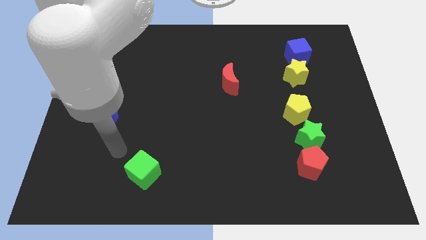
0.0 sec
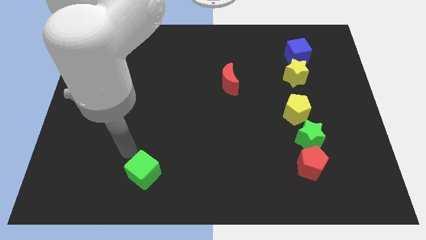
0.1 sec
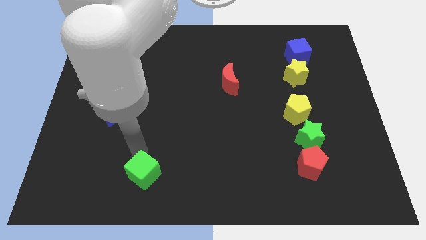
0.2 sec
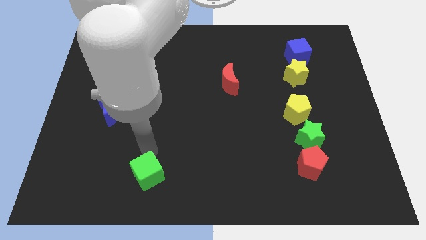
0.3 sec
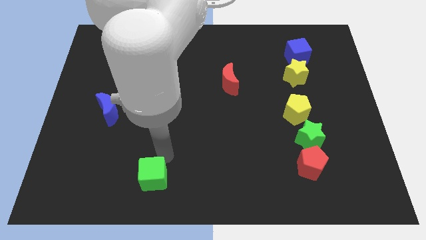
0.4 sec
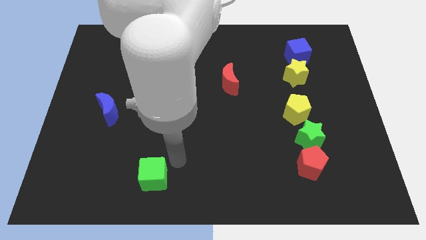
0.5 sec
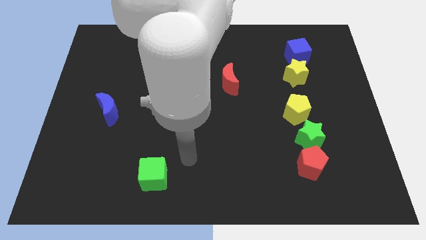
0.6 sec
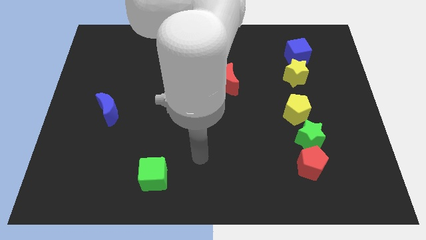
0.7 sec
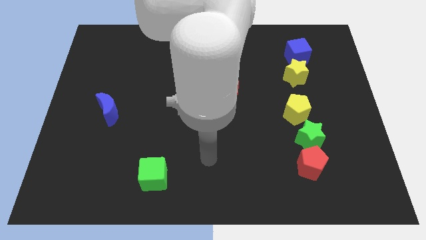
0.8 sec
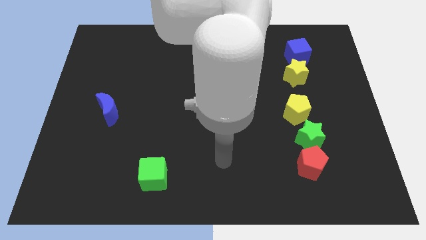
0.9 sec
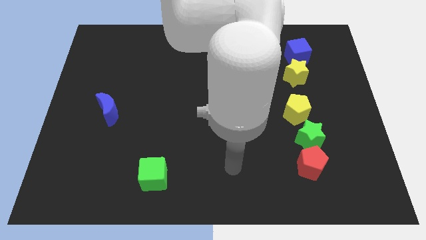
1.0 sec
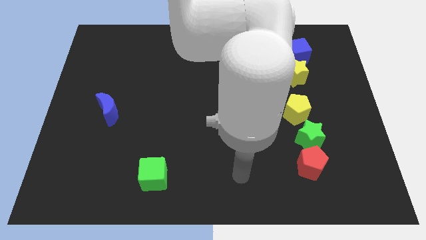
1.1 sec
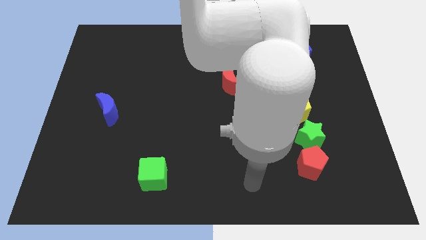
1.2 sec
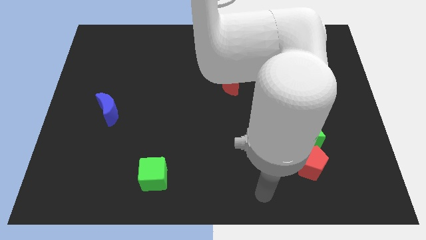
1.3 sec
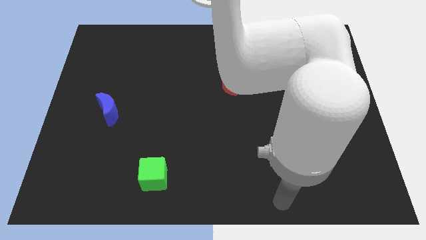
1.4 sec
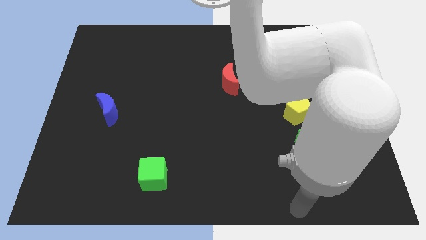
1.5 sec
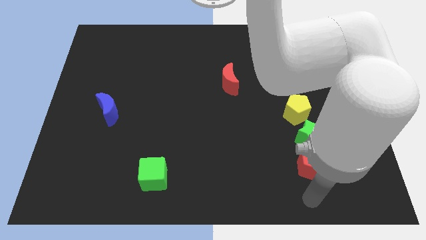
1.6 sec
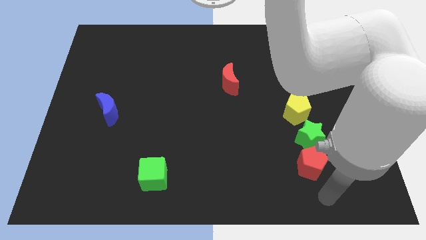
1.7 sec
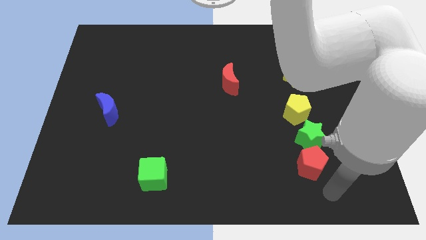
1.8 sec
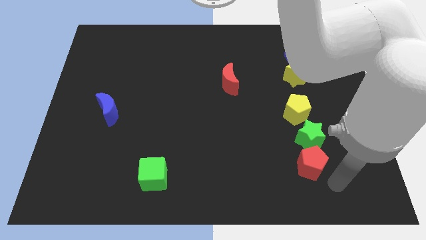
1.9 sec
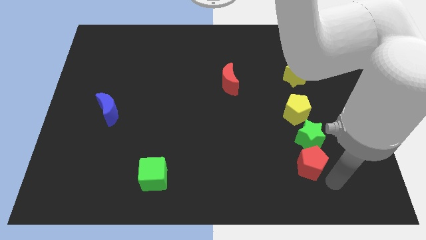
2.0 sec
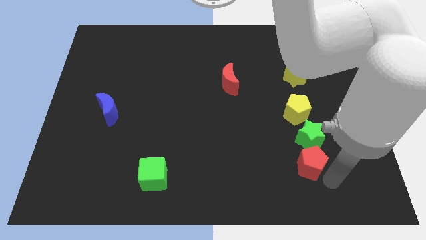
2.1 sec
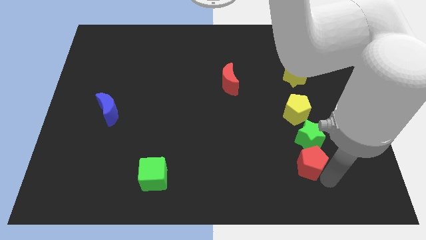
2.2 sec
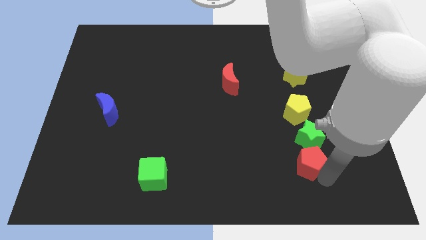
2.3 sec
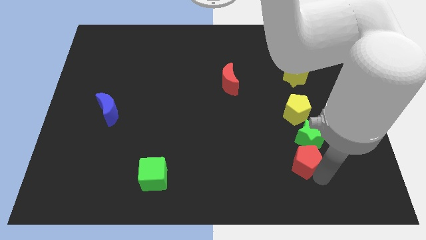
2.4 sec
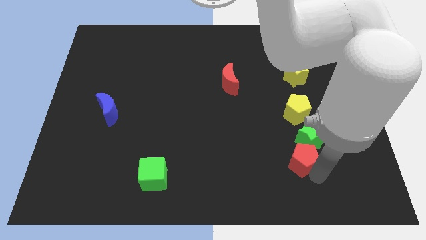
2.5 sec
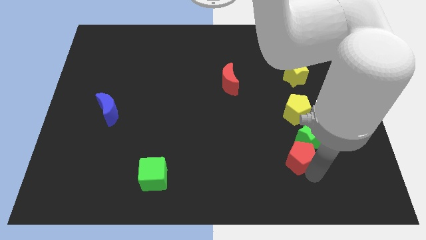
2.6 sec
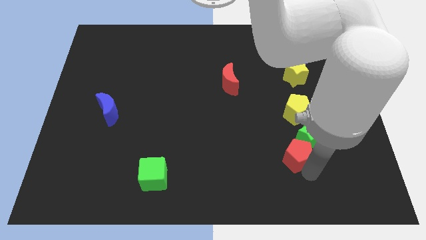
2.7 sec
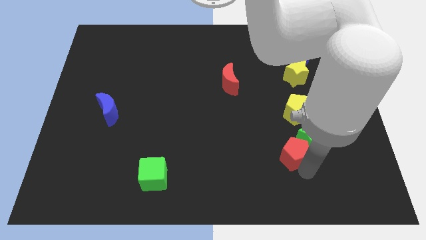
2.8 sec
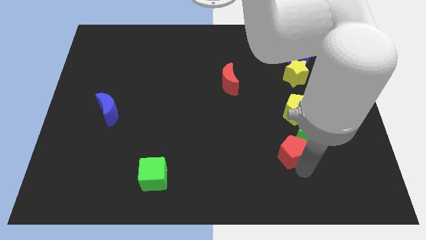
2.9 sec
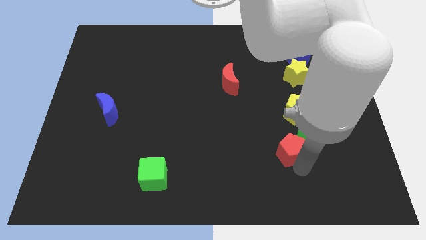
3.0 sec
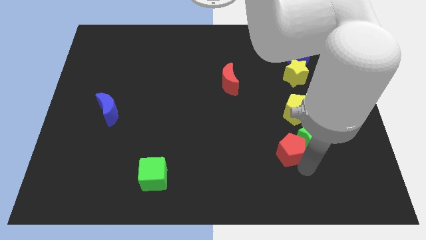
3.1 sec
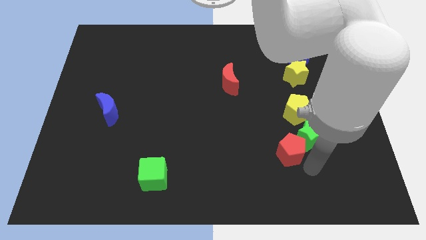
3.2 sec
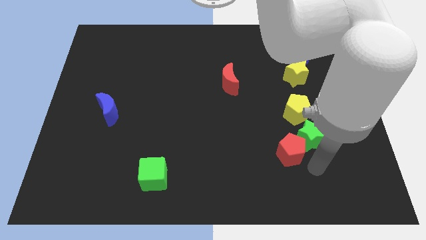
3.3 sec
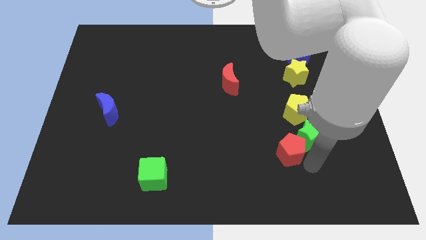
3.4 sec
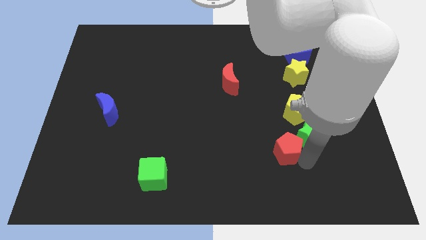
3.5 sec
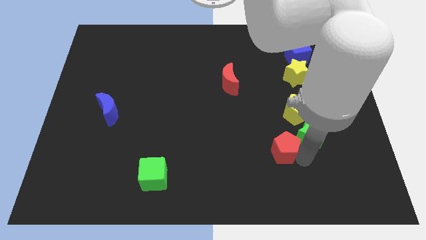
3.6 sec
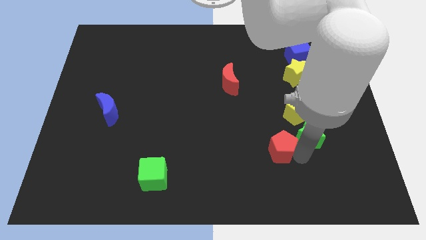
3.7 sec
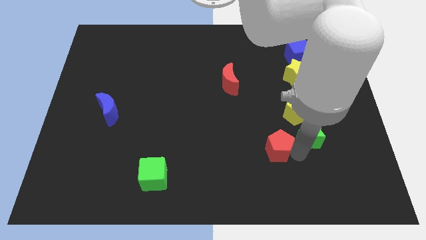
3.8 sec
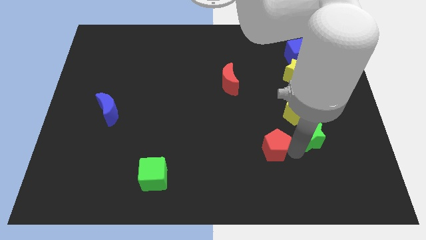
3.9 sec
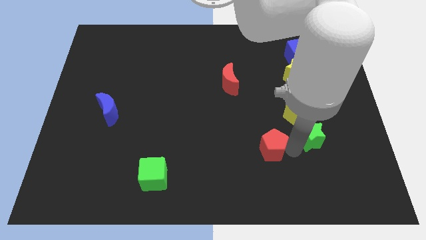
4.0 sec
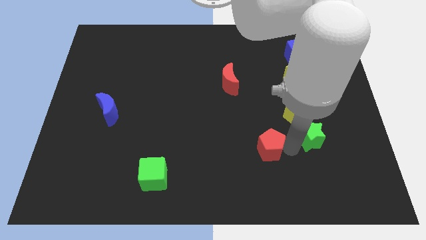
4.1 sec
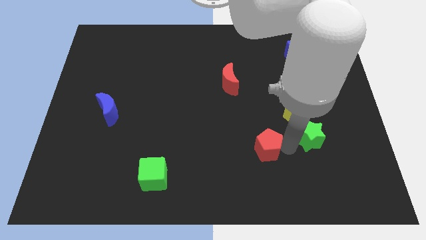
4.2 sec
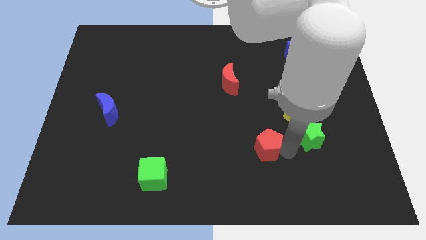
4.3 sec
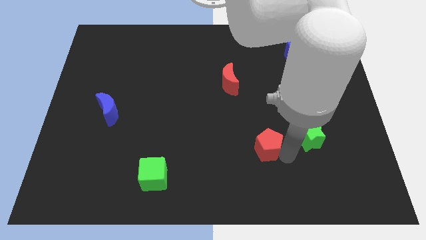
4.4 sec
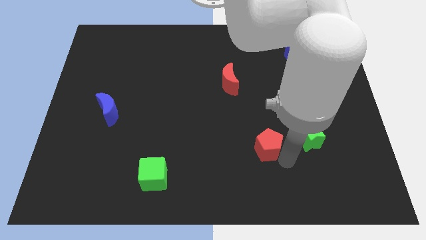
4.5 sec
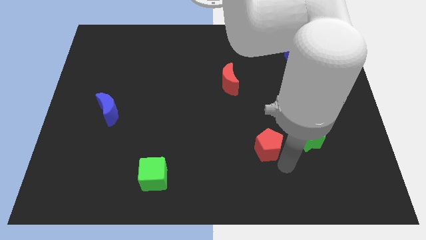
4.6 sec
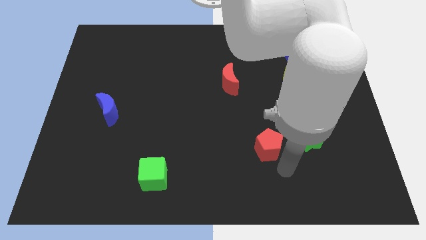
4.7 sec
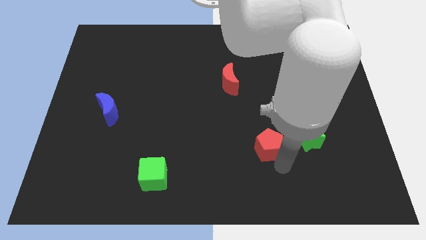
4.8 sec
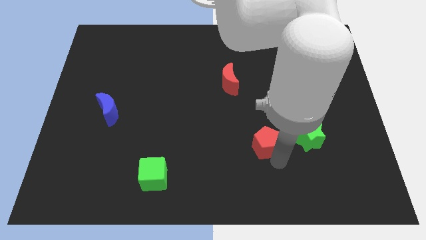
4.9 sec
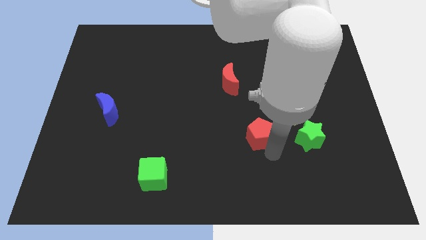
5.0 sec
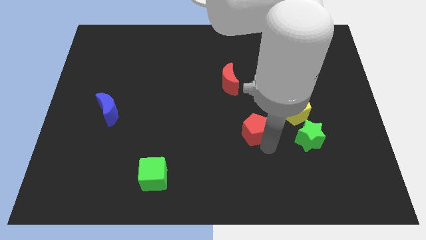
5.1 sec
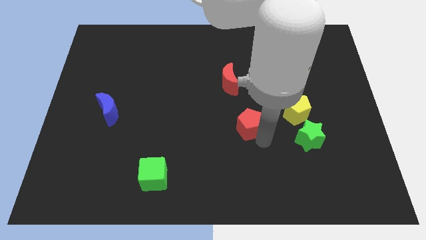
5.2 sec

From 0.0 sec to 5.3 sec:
move the red pentagon to the center of the board

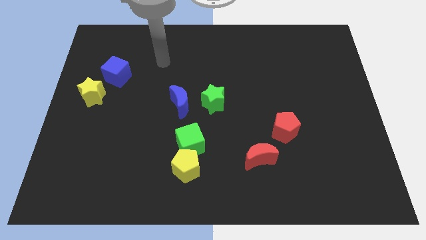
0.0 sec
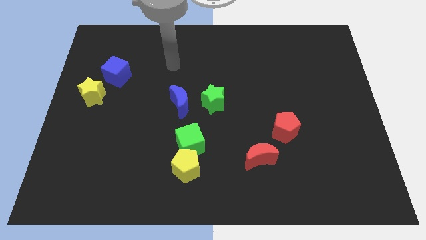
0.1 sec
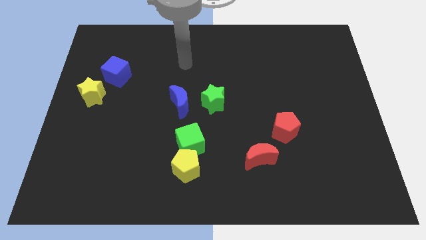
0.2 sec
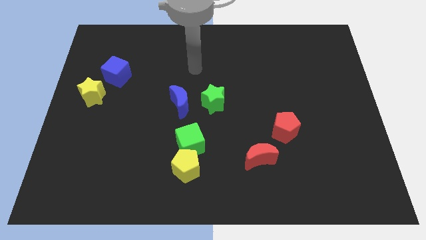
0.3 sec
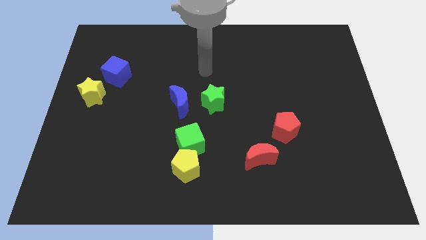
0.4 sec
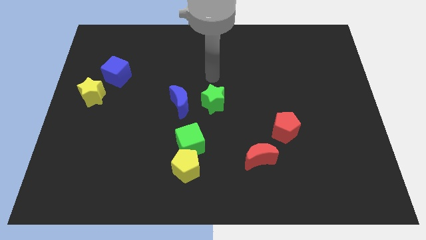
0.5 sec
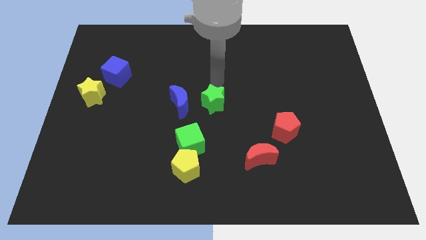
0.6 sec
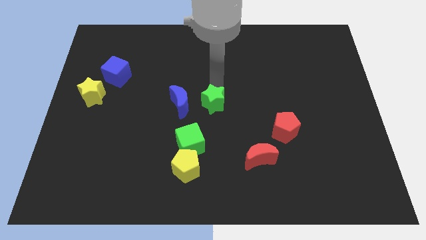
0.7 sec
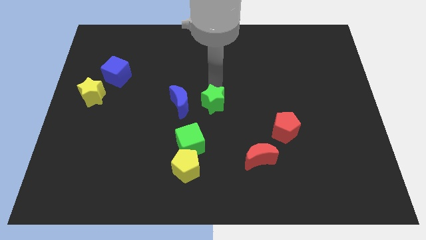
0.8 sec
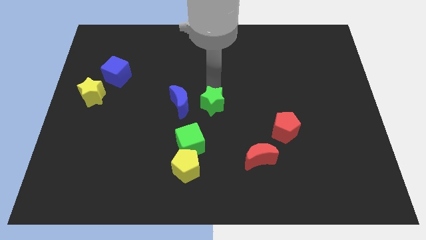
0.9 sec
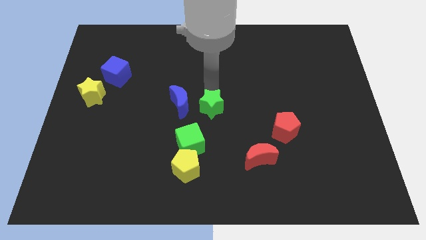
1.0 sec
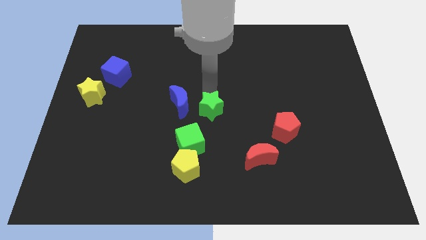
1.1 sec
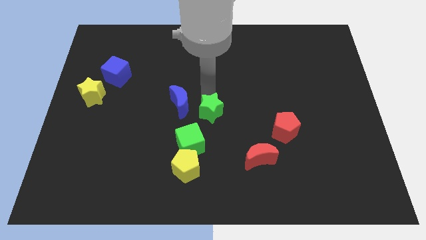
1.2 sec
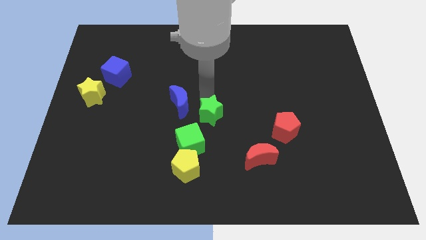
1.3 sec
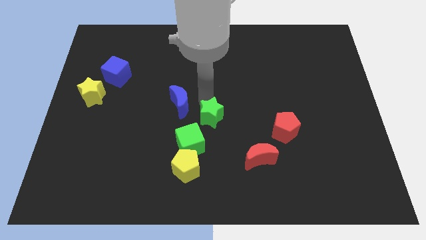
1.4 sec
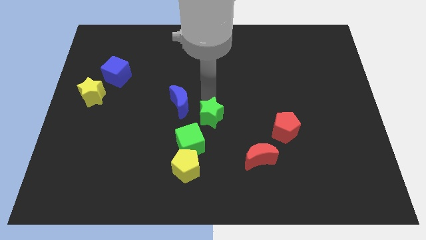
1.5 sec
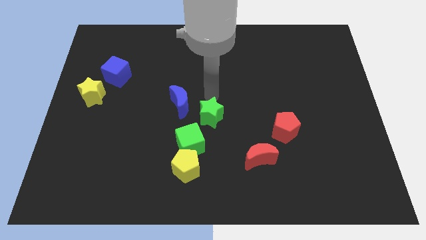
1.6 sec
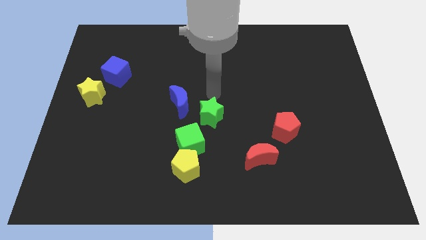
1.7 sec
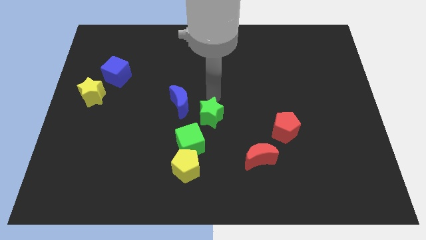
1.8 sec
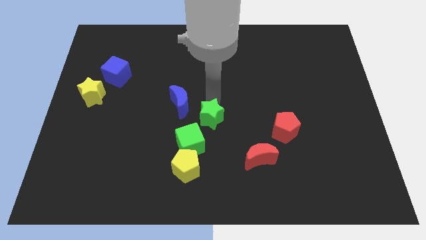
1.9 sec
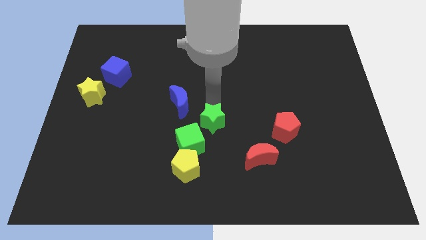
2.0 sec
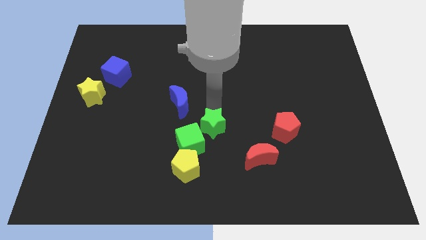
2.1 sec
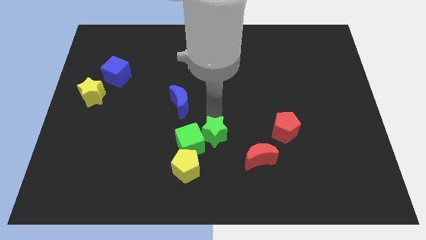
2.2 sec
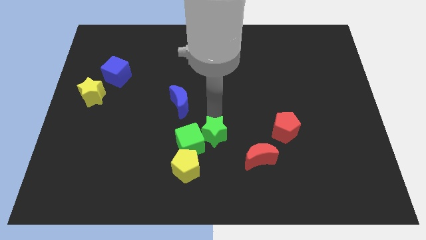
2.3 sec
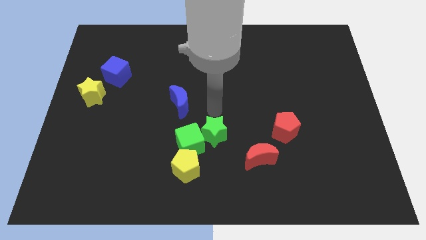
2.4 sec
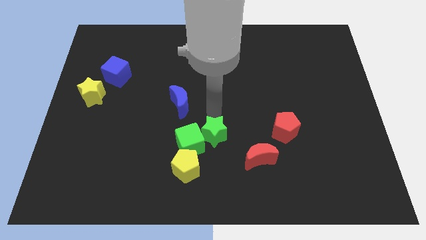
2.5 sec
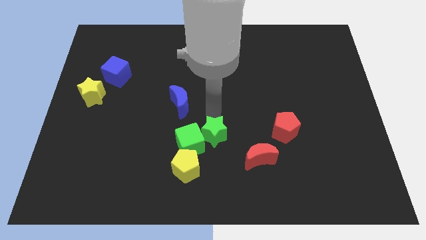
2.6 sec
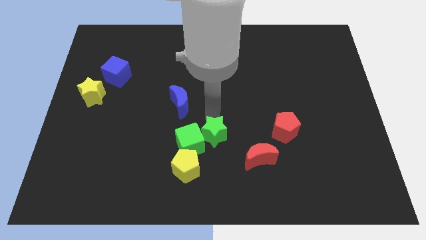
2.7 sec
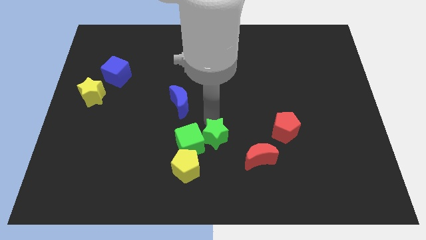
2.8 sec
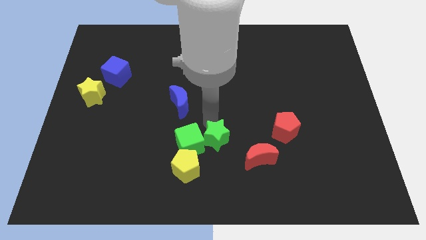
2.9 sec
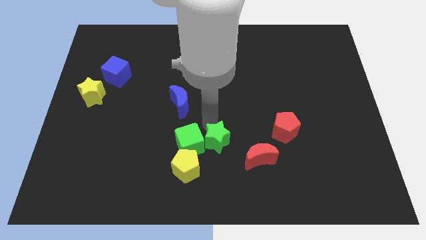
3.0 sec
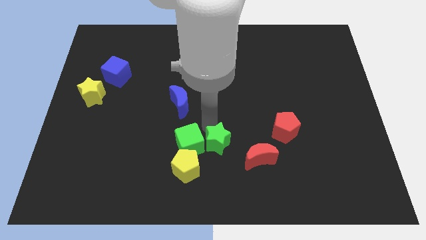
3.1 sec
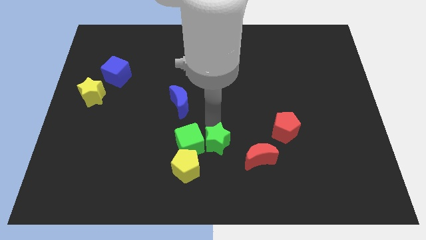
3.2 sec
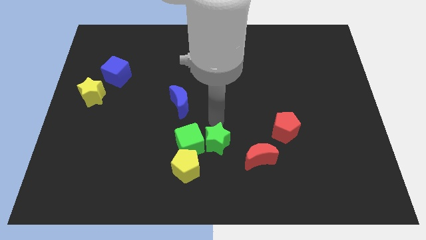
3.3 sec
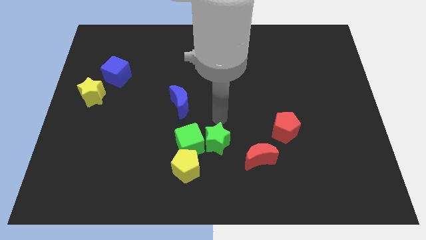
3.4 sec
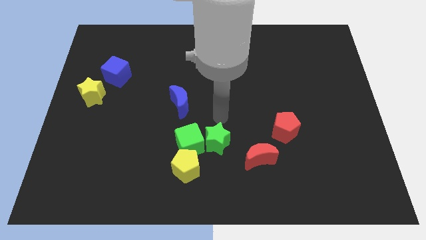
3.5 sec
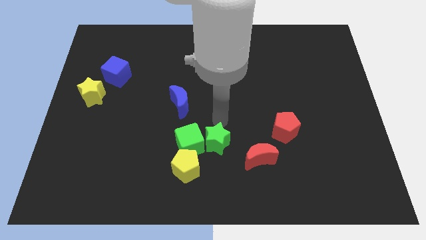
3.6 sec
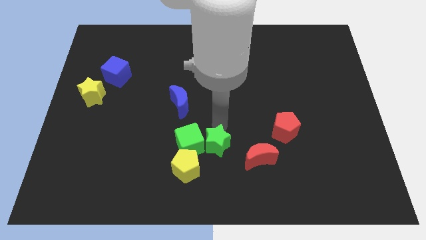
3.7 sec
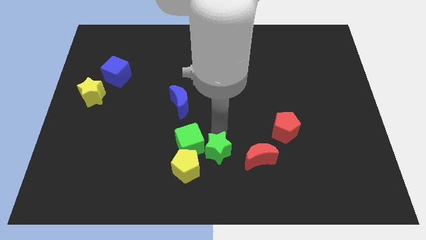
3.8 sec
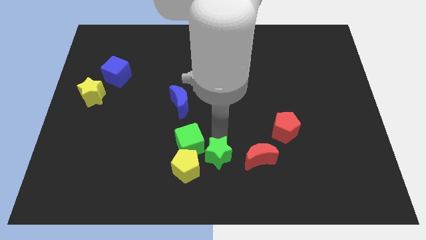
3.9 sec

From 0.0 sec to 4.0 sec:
slide the green star to the bottom side
